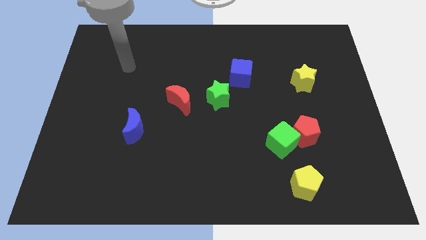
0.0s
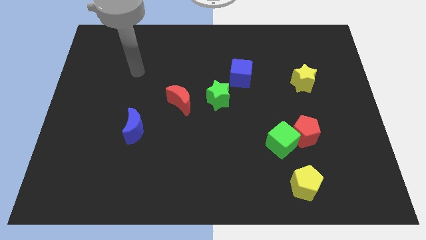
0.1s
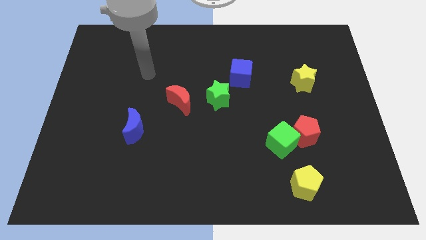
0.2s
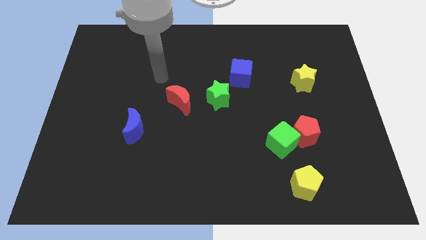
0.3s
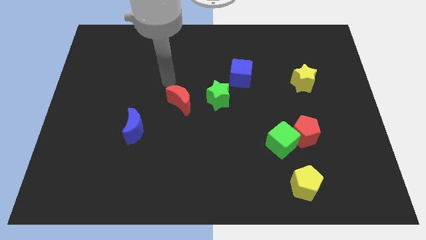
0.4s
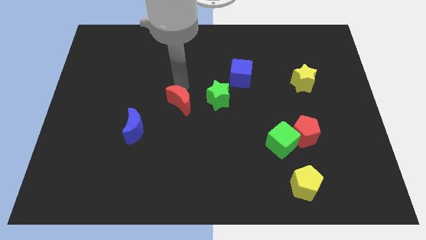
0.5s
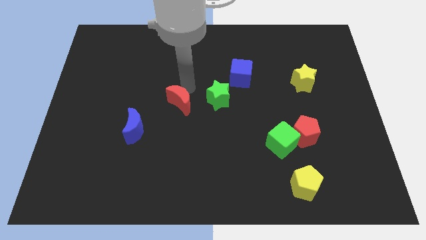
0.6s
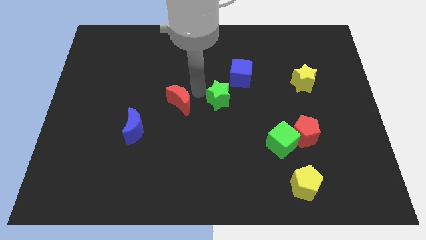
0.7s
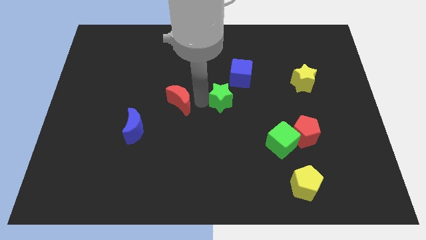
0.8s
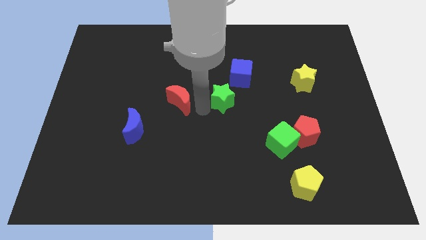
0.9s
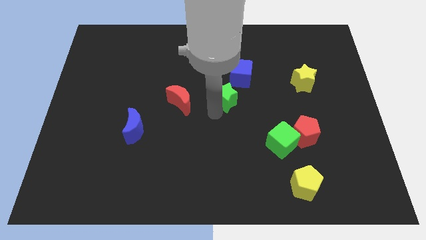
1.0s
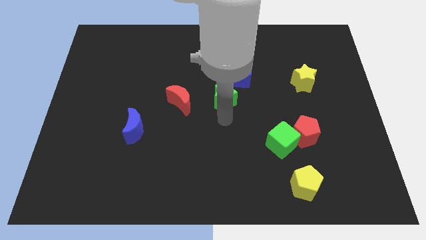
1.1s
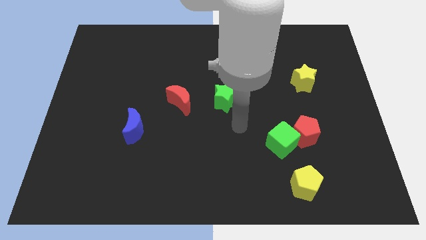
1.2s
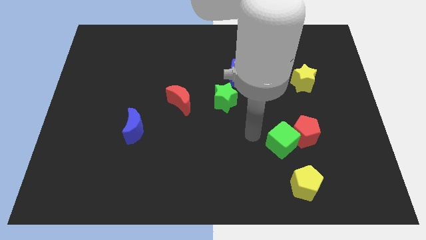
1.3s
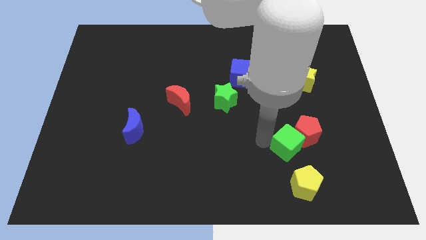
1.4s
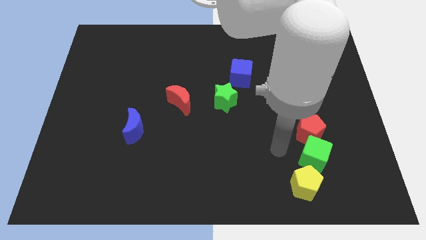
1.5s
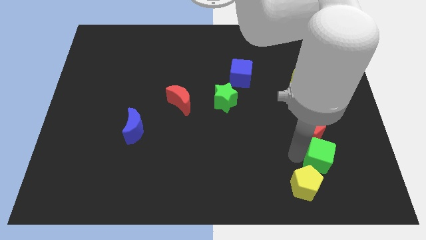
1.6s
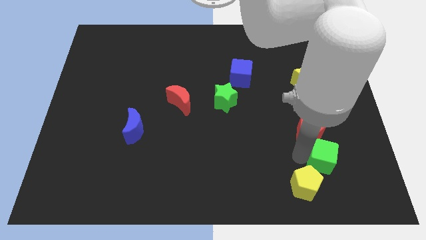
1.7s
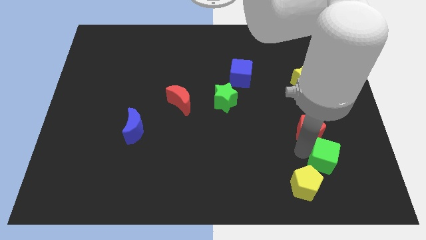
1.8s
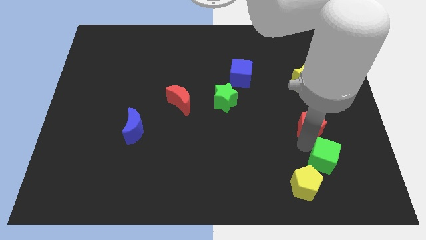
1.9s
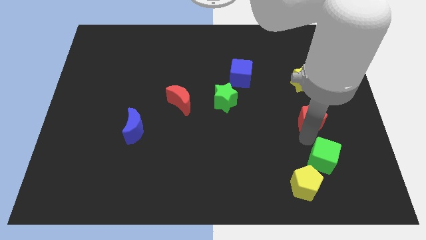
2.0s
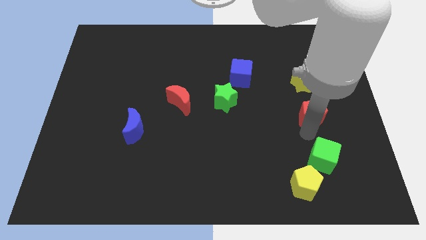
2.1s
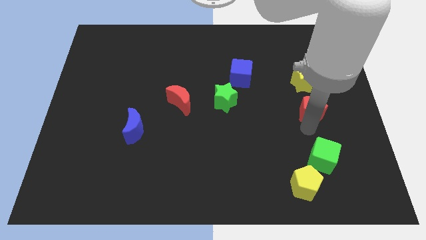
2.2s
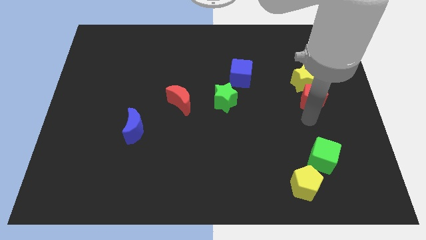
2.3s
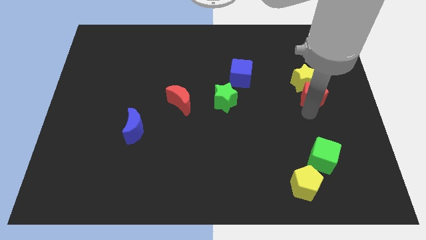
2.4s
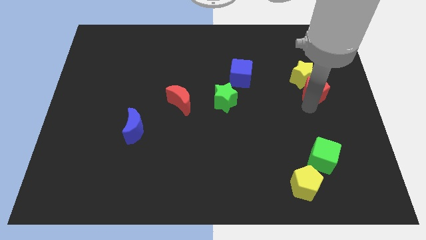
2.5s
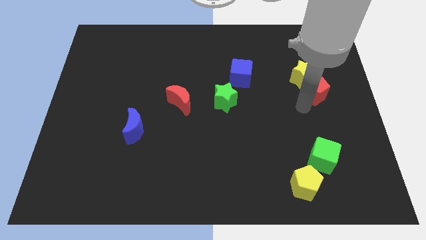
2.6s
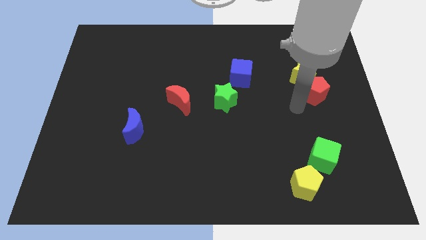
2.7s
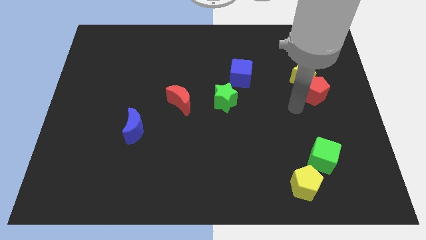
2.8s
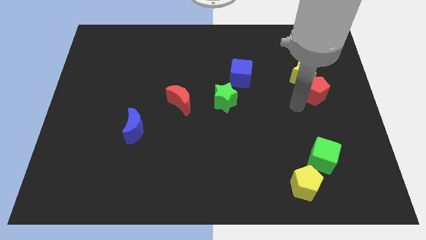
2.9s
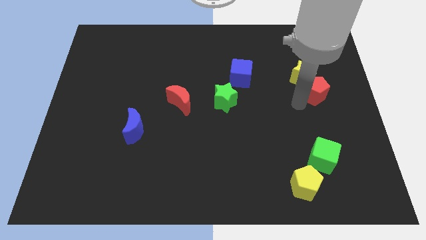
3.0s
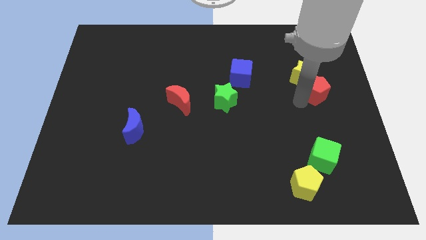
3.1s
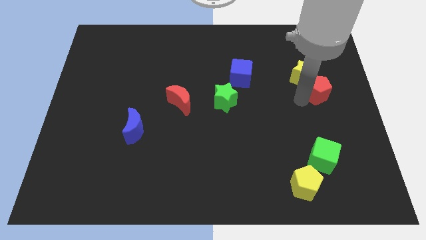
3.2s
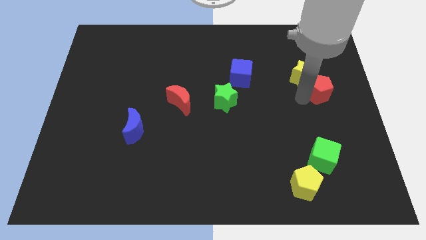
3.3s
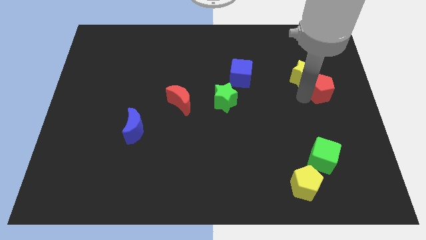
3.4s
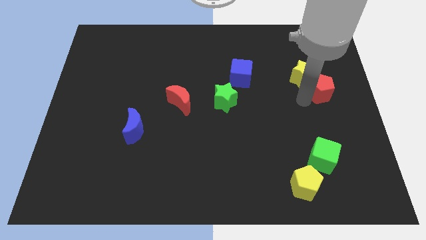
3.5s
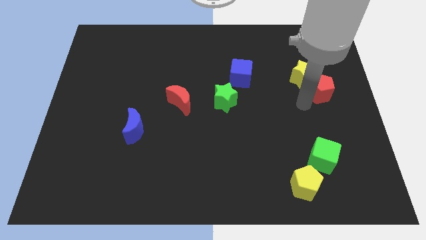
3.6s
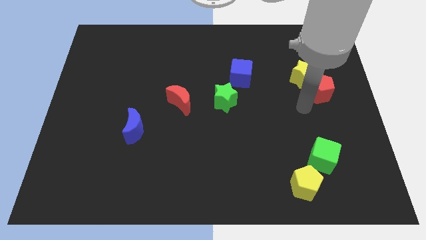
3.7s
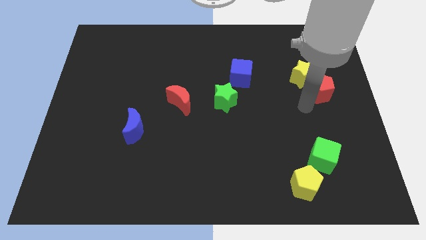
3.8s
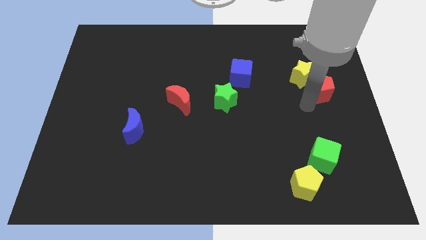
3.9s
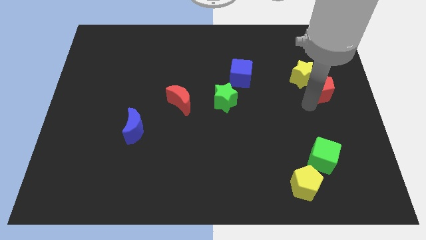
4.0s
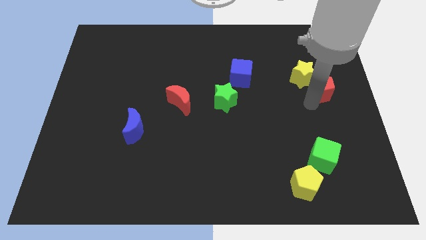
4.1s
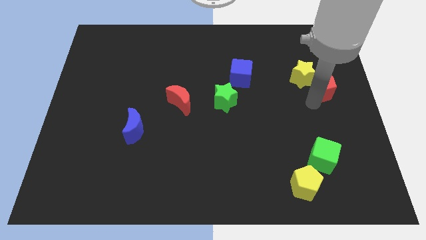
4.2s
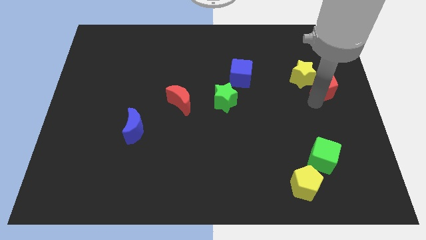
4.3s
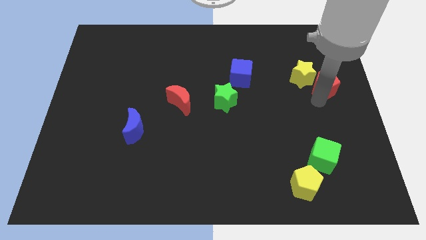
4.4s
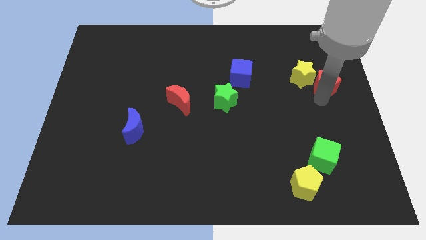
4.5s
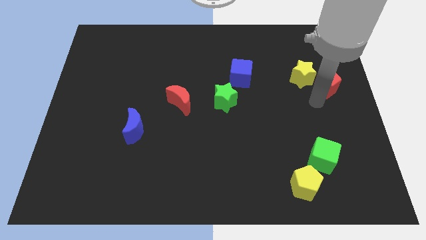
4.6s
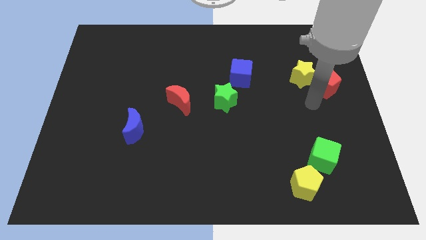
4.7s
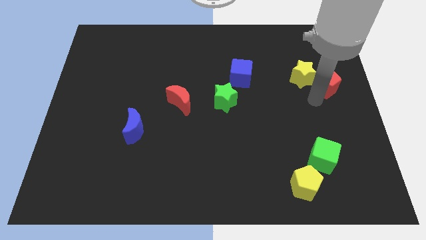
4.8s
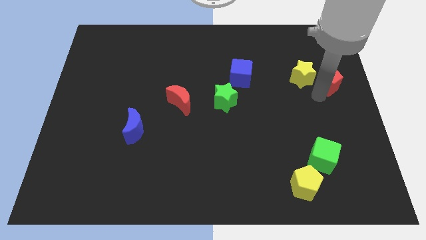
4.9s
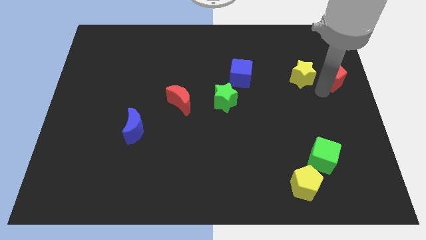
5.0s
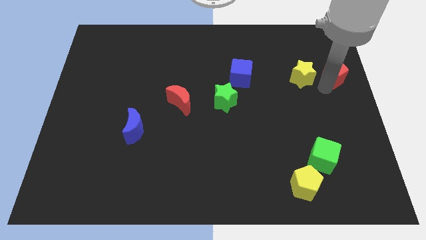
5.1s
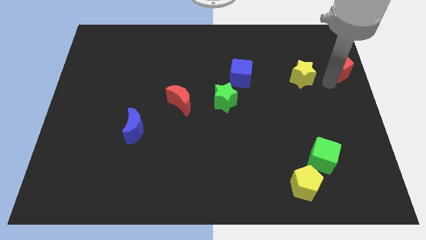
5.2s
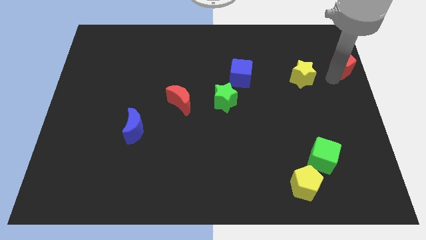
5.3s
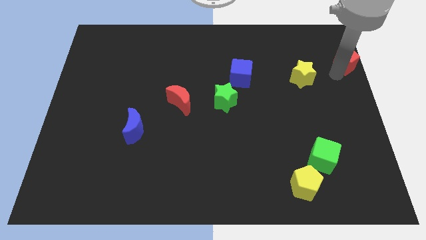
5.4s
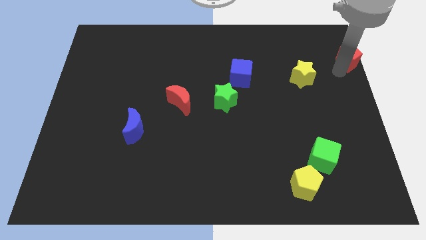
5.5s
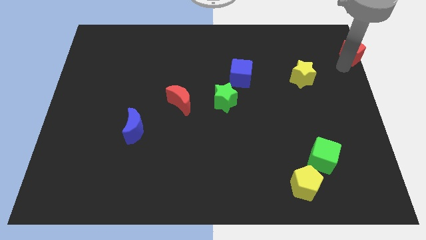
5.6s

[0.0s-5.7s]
slide the red pentagon to the top right of the board
